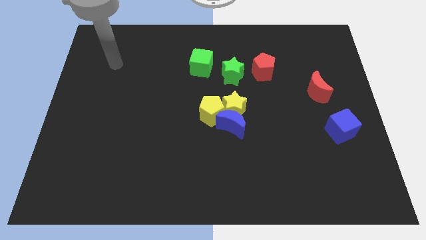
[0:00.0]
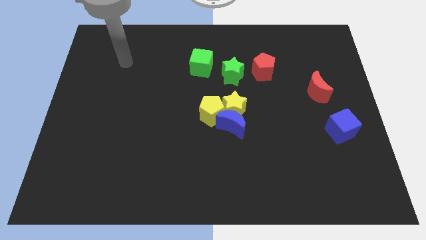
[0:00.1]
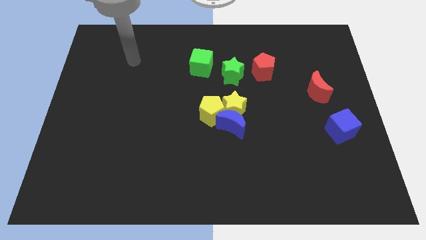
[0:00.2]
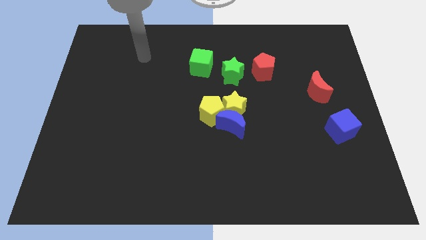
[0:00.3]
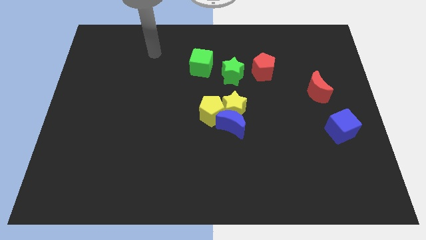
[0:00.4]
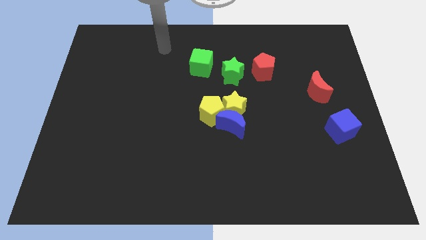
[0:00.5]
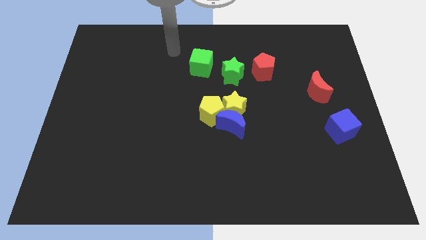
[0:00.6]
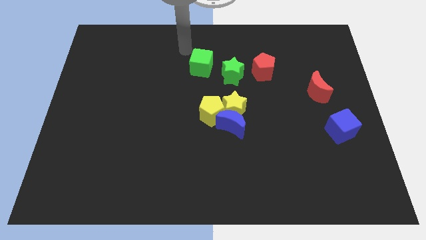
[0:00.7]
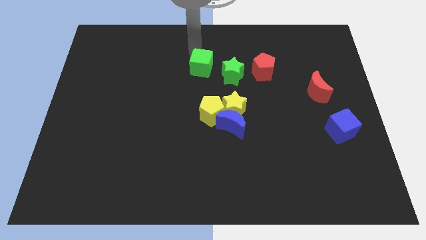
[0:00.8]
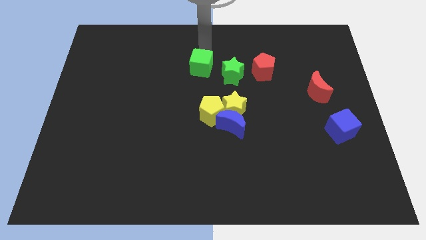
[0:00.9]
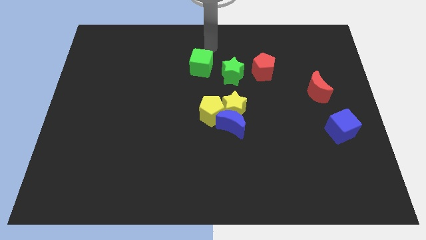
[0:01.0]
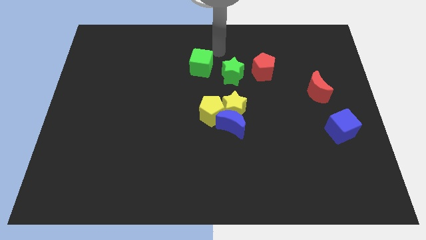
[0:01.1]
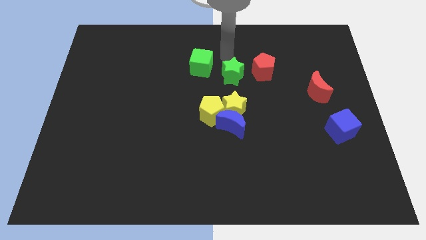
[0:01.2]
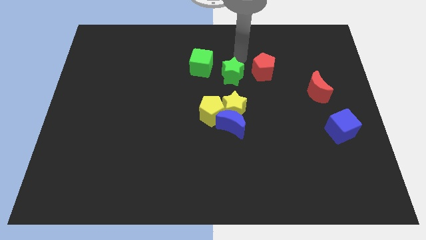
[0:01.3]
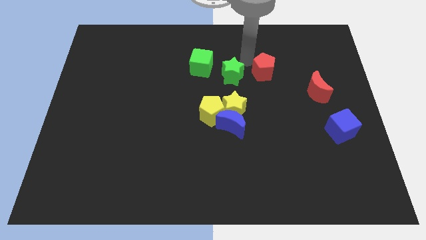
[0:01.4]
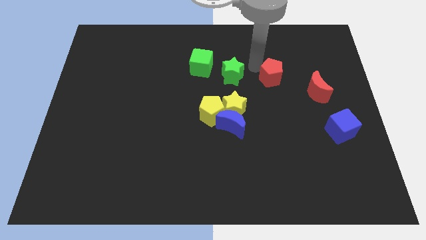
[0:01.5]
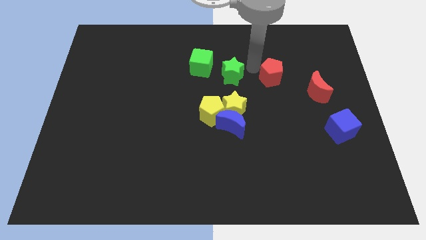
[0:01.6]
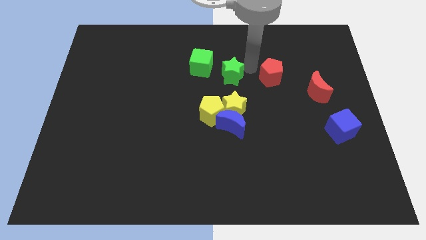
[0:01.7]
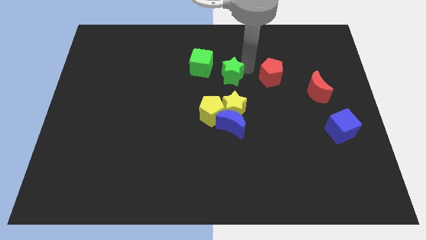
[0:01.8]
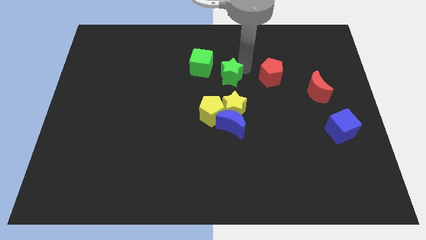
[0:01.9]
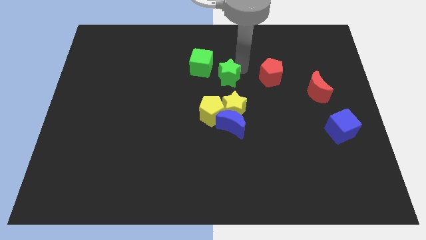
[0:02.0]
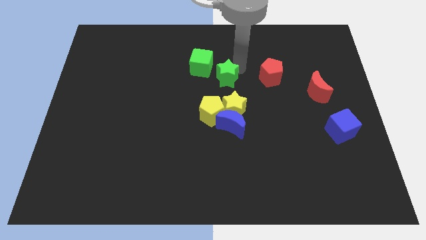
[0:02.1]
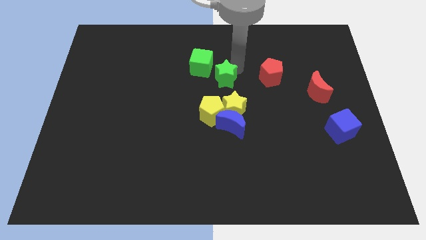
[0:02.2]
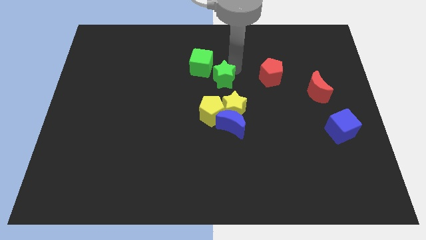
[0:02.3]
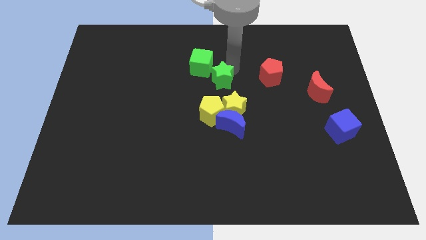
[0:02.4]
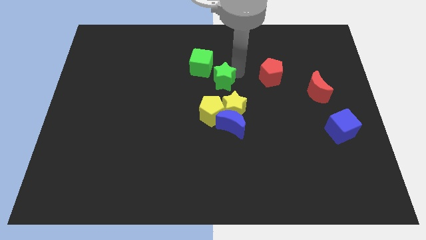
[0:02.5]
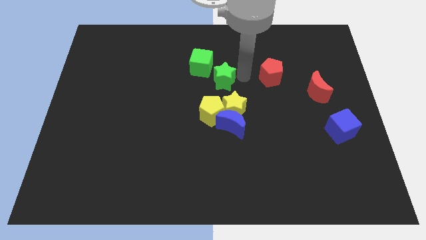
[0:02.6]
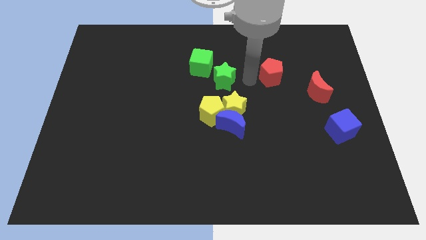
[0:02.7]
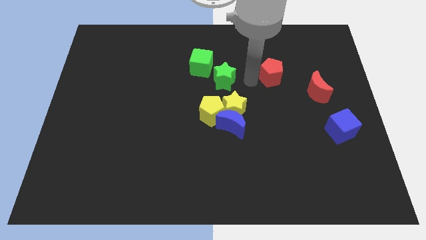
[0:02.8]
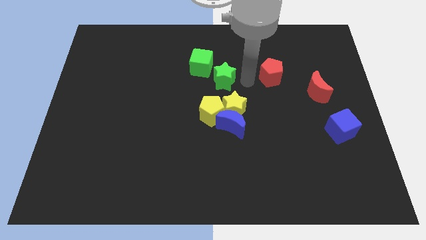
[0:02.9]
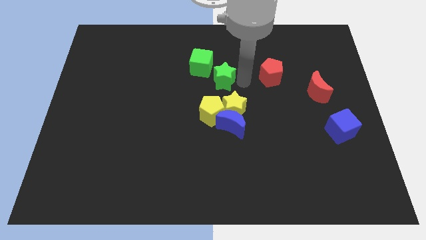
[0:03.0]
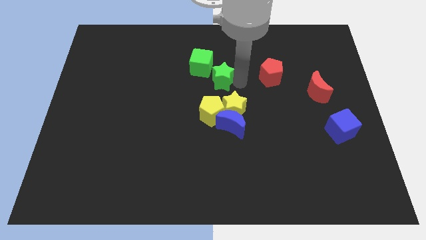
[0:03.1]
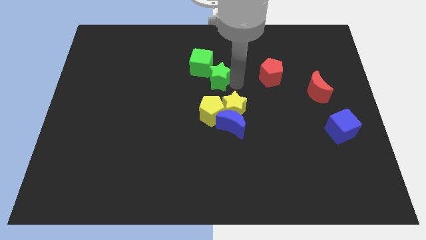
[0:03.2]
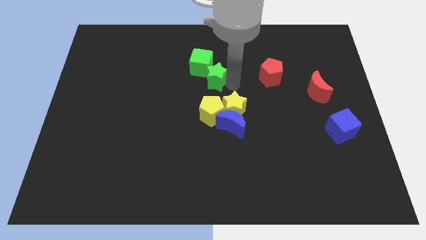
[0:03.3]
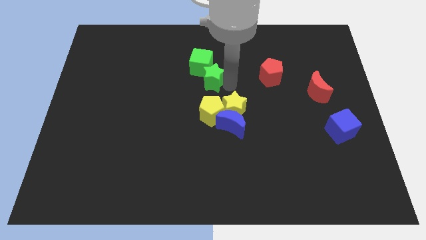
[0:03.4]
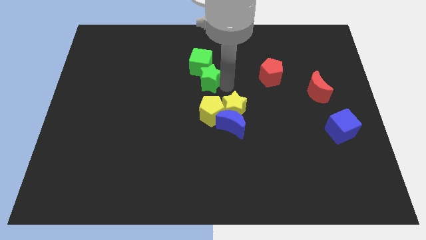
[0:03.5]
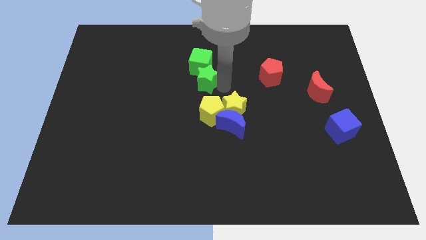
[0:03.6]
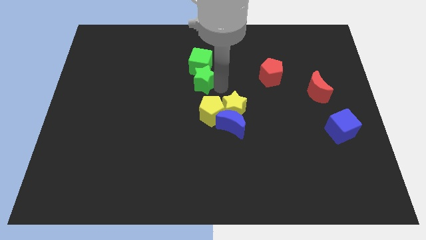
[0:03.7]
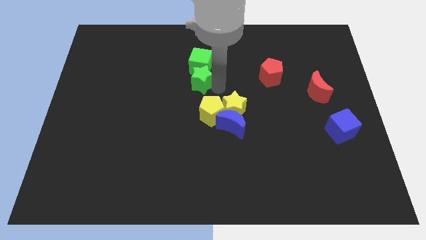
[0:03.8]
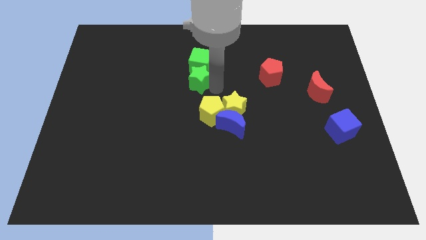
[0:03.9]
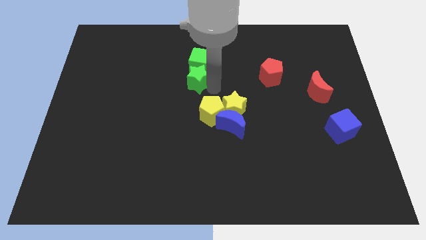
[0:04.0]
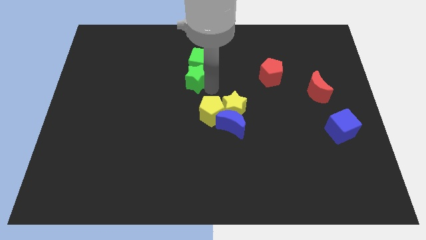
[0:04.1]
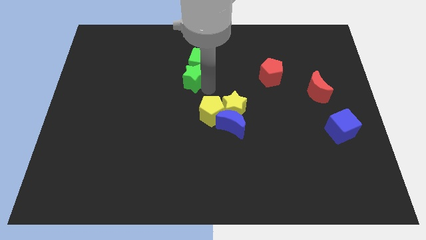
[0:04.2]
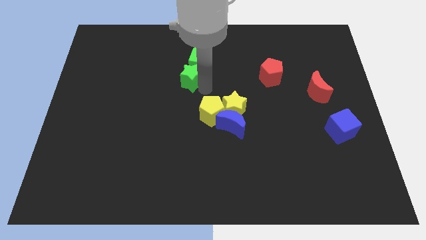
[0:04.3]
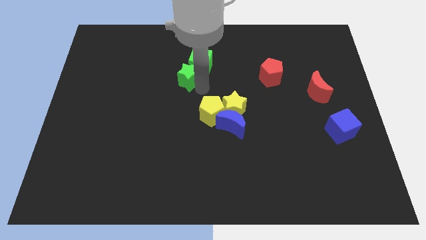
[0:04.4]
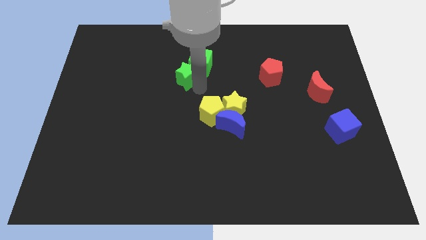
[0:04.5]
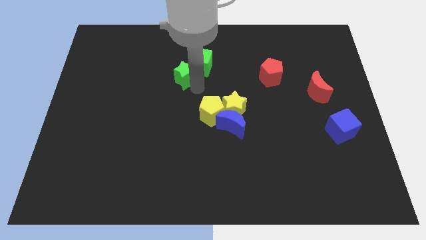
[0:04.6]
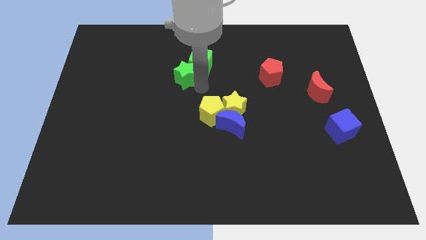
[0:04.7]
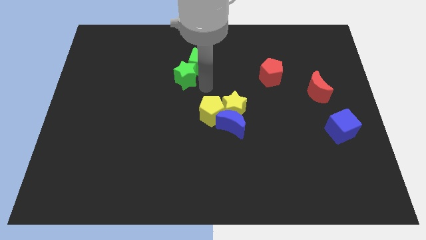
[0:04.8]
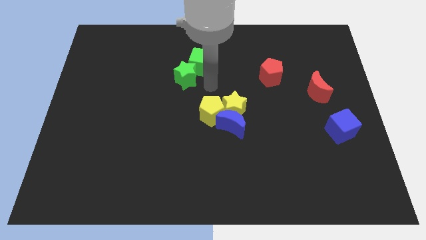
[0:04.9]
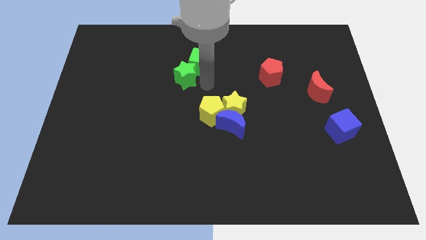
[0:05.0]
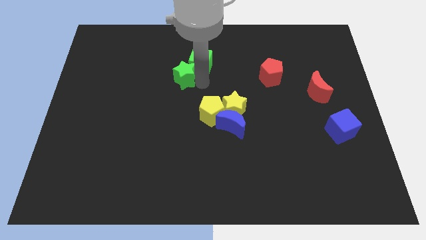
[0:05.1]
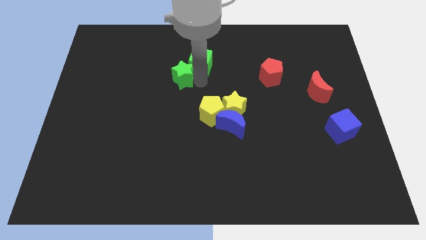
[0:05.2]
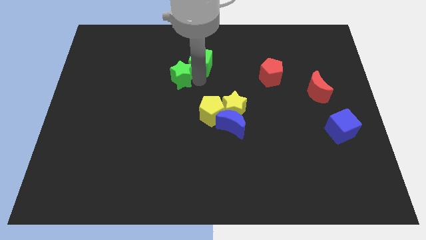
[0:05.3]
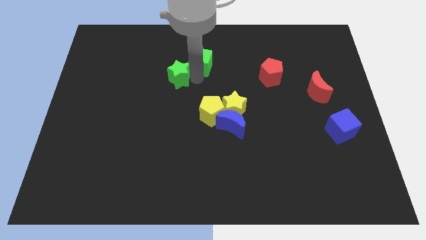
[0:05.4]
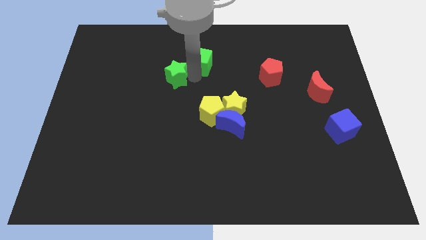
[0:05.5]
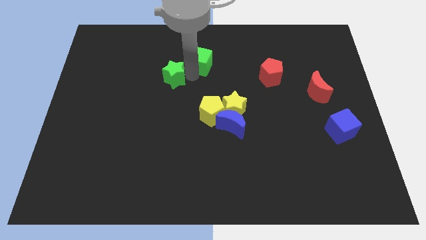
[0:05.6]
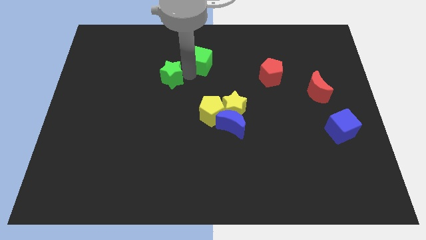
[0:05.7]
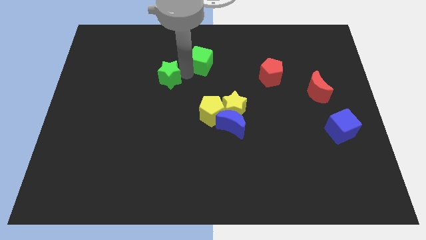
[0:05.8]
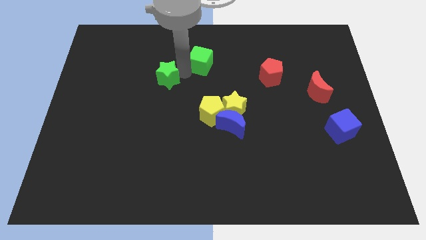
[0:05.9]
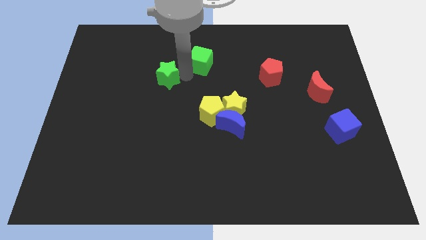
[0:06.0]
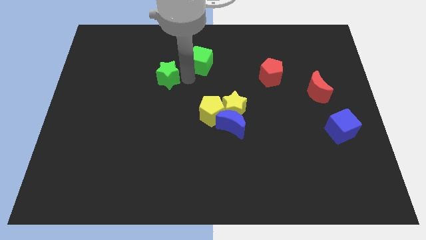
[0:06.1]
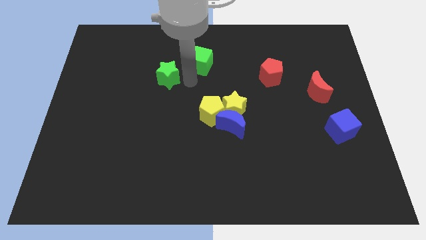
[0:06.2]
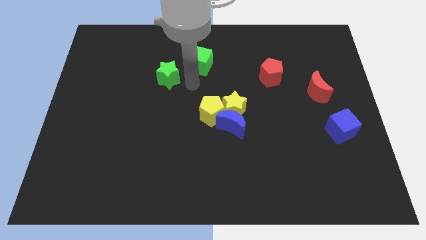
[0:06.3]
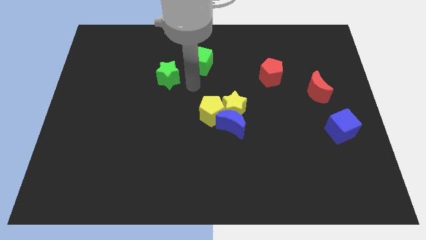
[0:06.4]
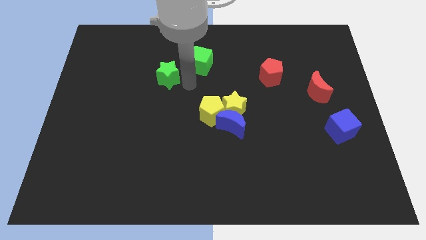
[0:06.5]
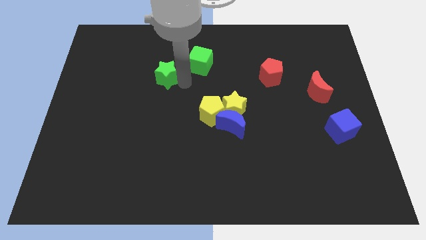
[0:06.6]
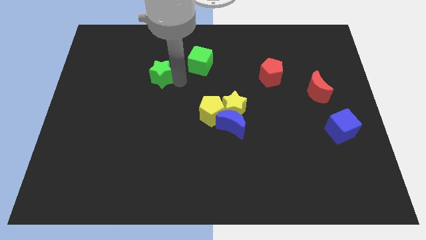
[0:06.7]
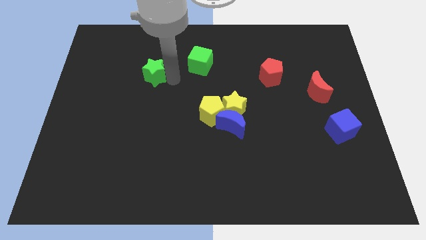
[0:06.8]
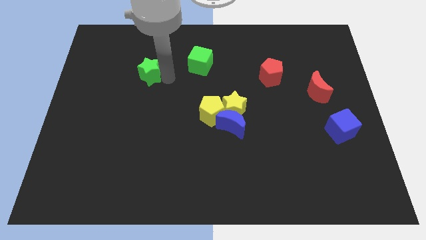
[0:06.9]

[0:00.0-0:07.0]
move the green star to the left

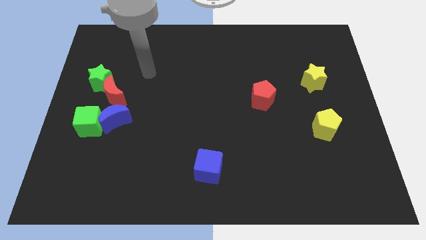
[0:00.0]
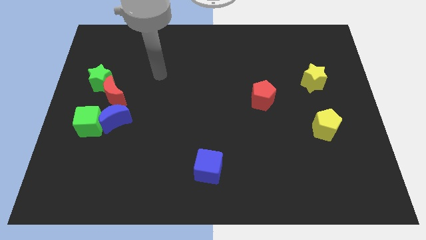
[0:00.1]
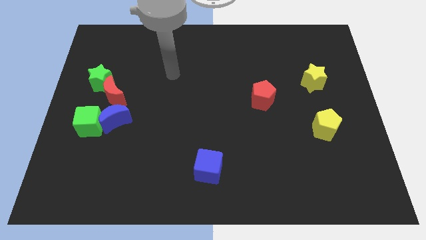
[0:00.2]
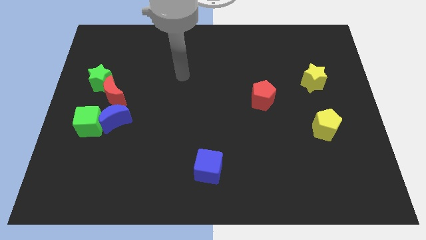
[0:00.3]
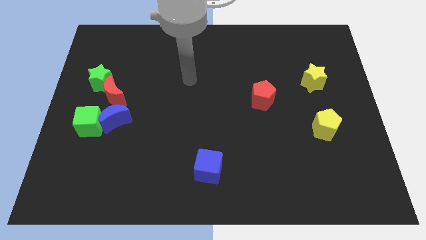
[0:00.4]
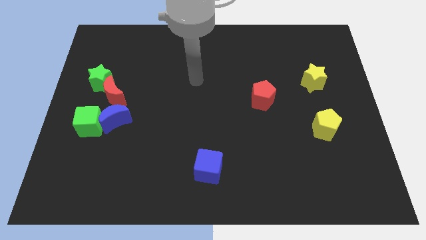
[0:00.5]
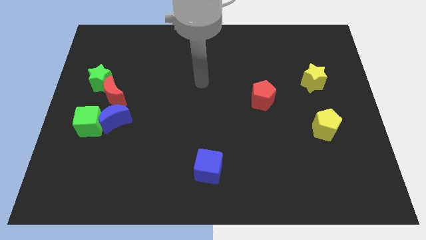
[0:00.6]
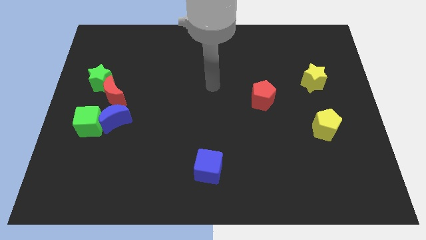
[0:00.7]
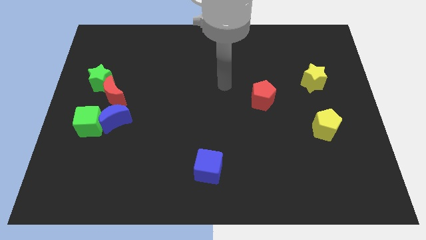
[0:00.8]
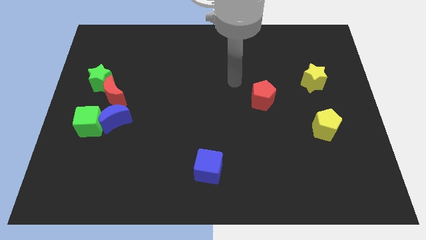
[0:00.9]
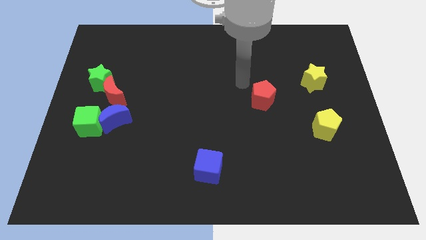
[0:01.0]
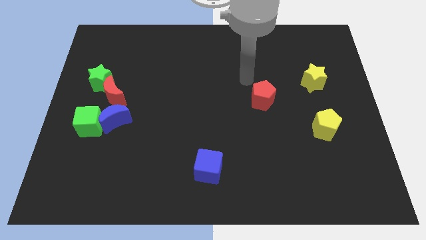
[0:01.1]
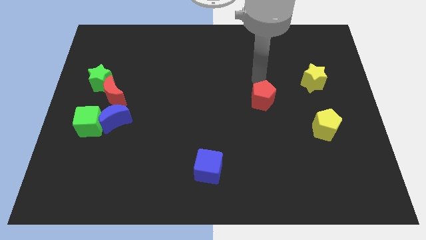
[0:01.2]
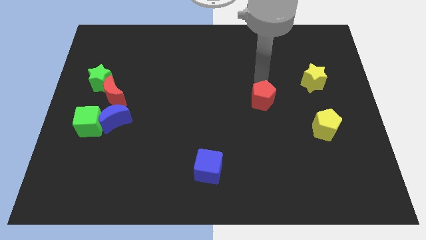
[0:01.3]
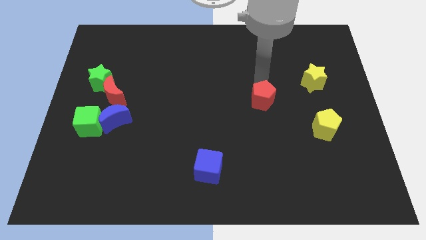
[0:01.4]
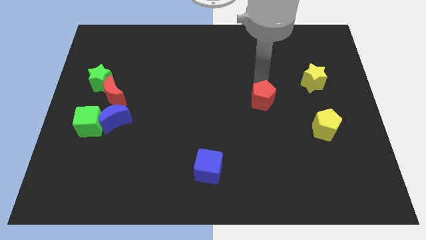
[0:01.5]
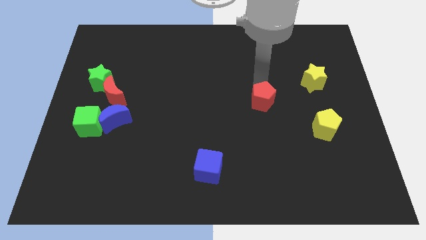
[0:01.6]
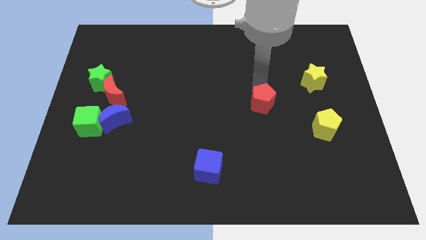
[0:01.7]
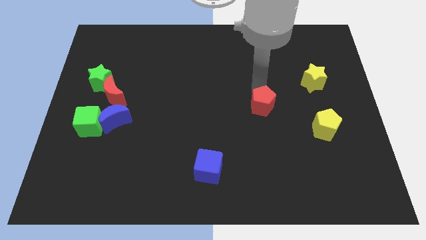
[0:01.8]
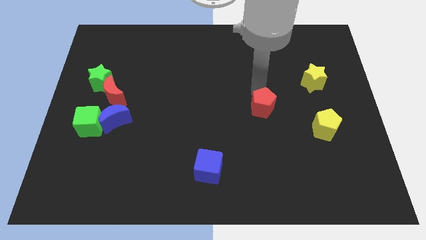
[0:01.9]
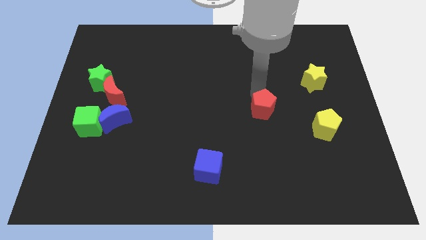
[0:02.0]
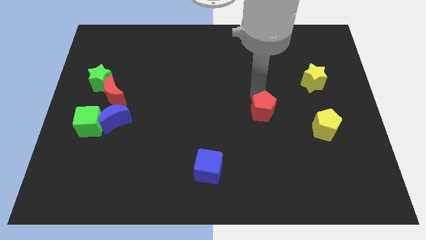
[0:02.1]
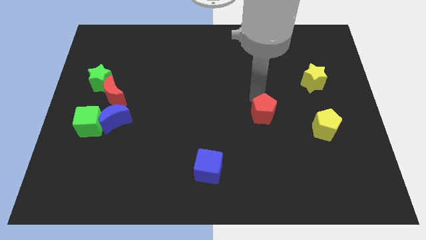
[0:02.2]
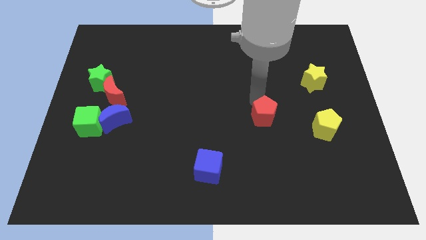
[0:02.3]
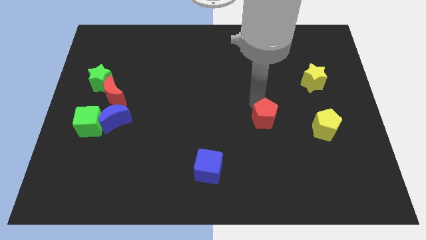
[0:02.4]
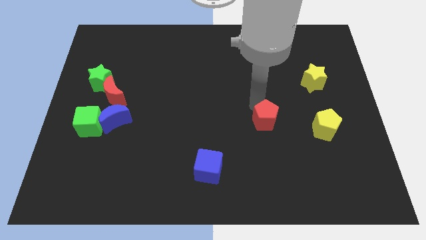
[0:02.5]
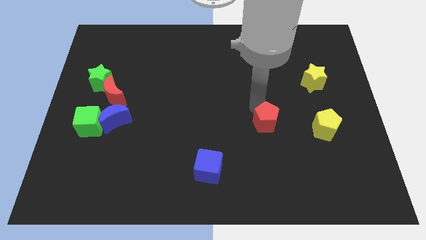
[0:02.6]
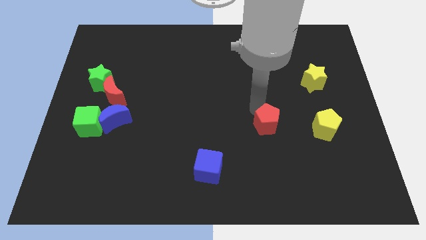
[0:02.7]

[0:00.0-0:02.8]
push the red pentagon a little downwards
